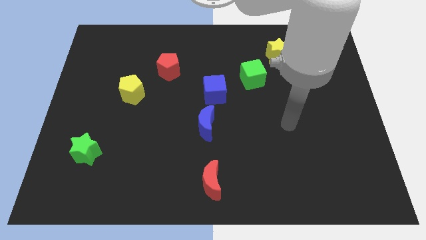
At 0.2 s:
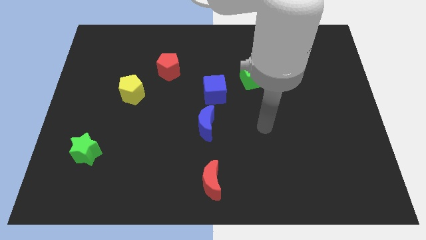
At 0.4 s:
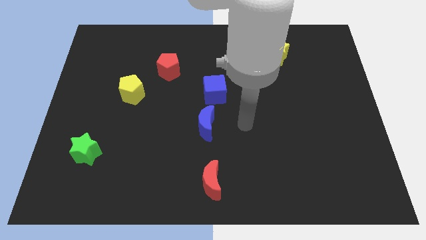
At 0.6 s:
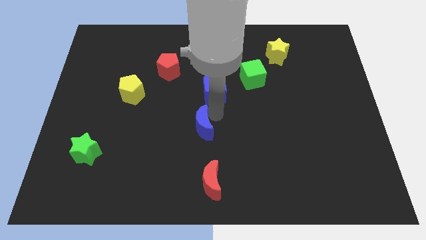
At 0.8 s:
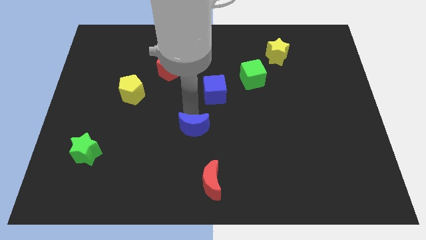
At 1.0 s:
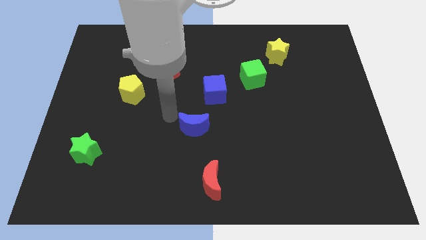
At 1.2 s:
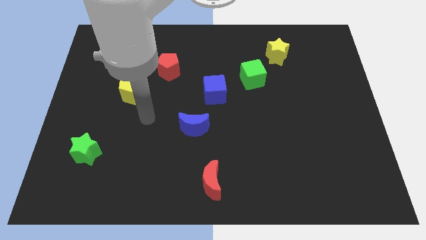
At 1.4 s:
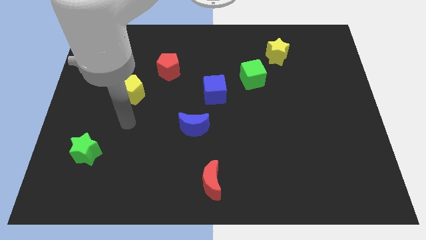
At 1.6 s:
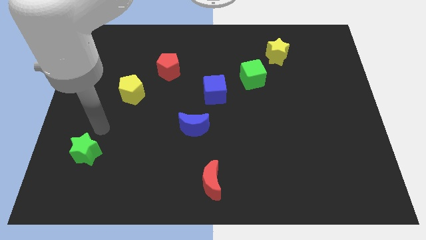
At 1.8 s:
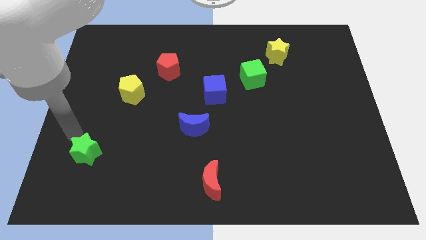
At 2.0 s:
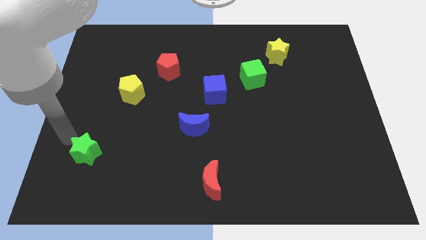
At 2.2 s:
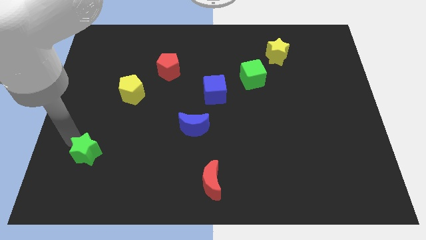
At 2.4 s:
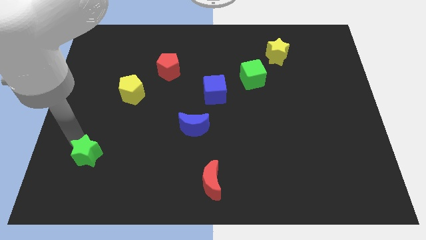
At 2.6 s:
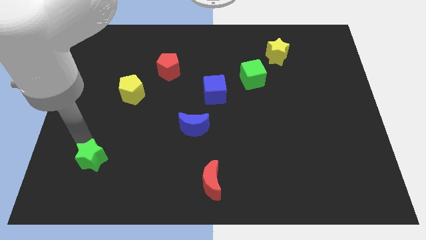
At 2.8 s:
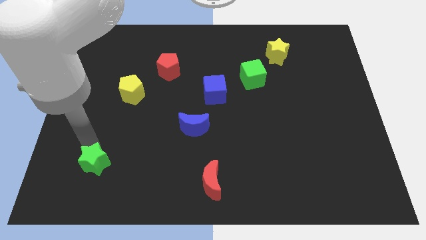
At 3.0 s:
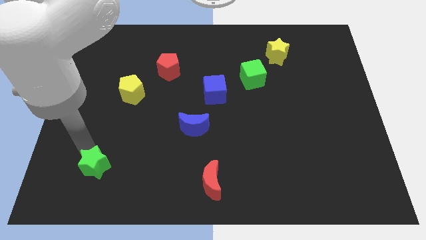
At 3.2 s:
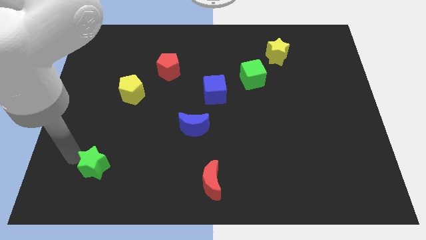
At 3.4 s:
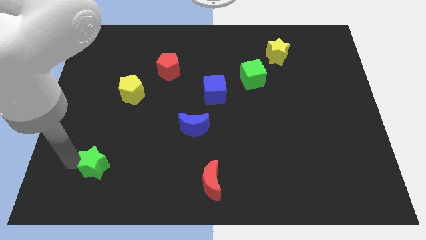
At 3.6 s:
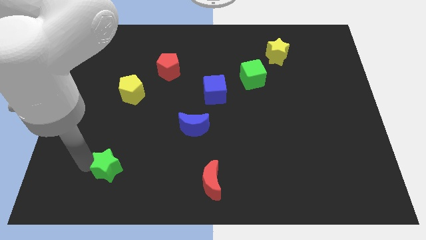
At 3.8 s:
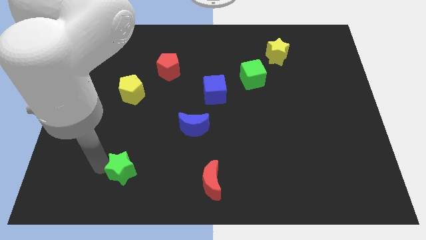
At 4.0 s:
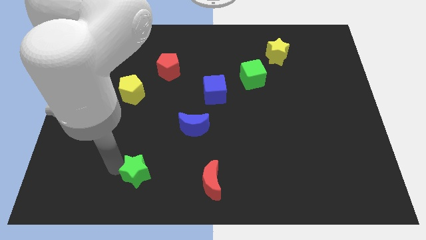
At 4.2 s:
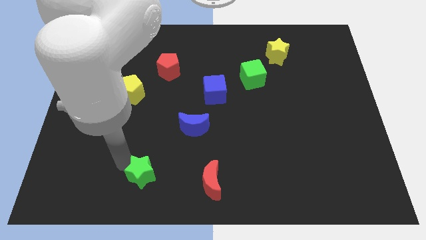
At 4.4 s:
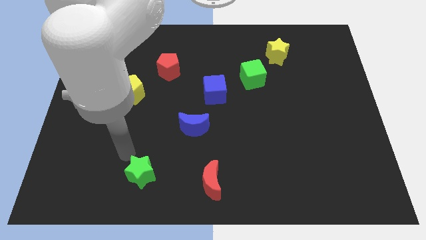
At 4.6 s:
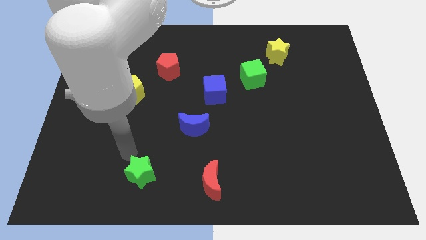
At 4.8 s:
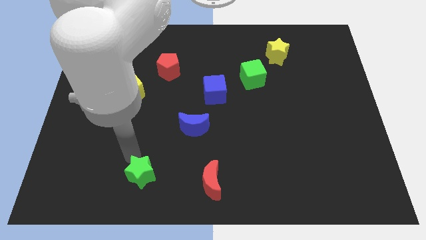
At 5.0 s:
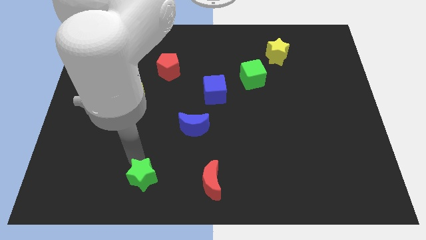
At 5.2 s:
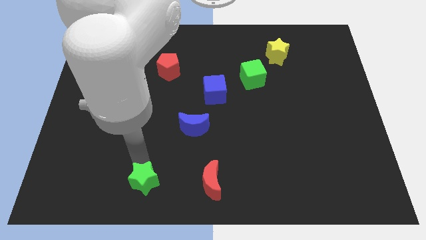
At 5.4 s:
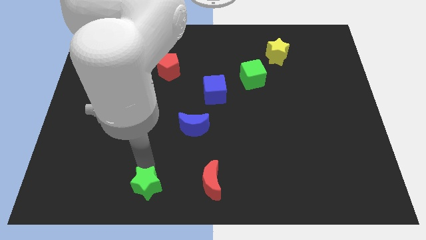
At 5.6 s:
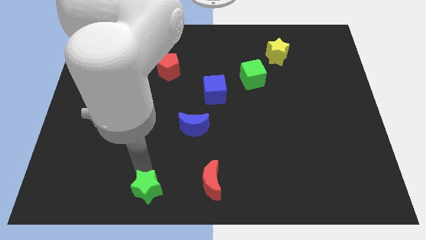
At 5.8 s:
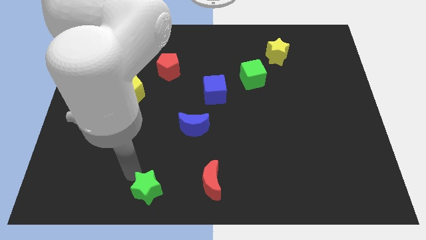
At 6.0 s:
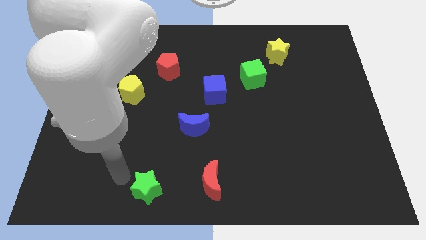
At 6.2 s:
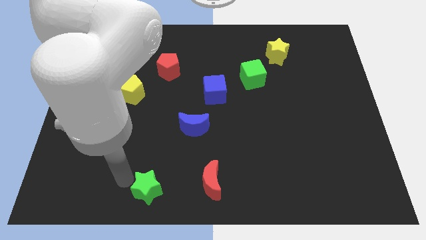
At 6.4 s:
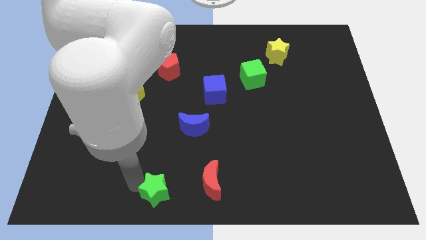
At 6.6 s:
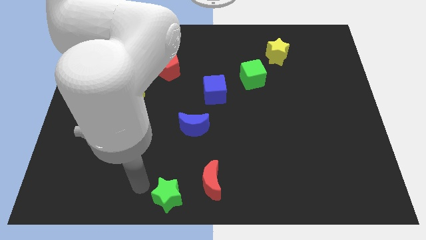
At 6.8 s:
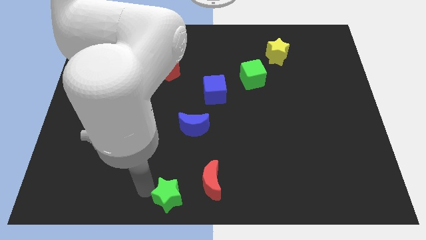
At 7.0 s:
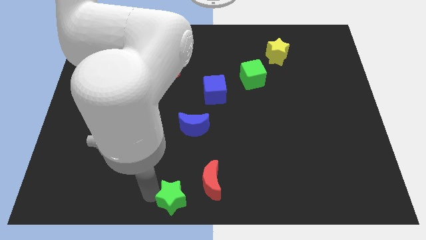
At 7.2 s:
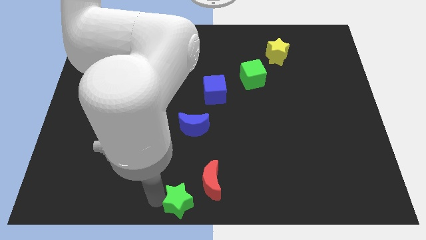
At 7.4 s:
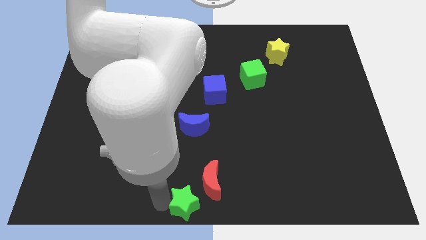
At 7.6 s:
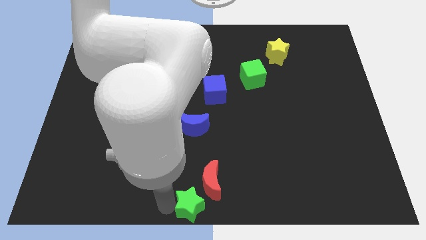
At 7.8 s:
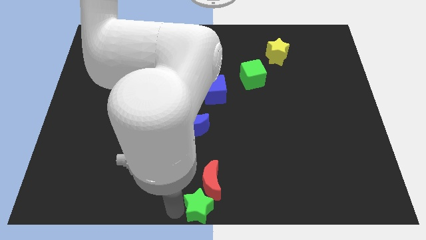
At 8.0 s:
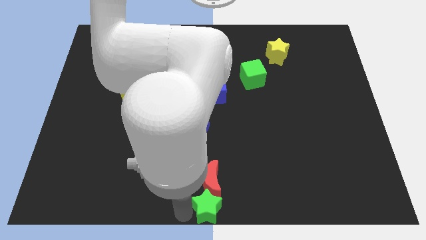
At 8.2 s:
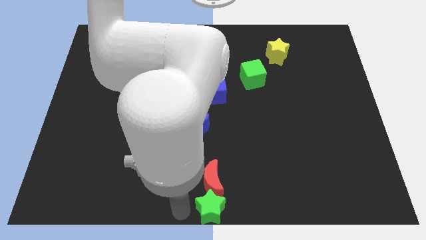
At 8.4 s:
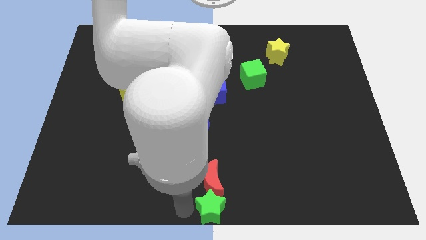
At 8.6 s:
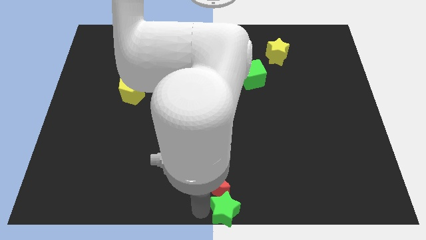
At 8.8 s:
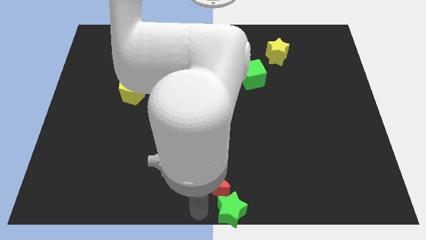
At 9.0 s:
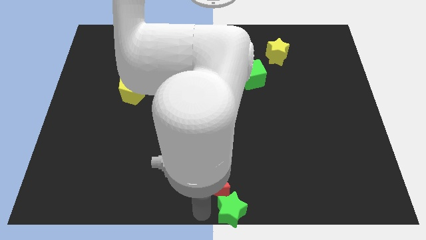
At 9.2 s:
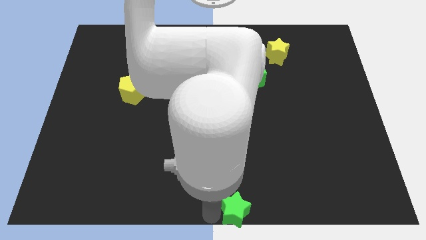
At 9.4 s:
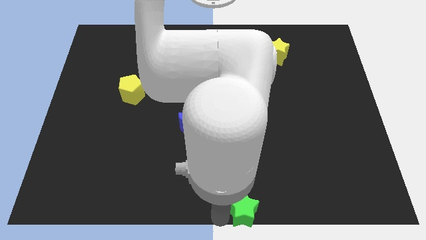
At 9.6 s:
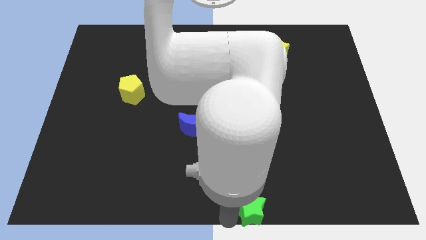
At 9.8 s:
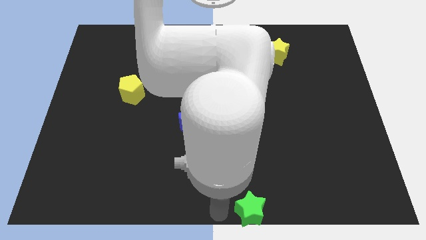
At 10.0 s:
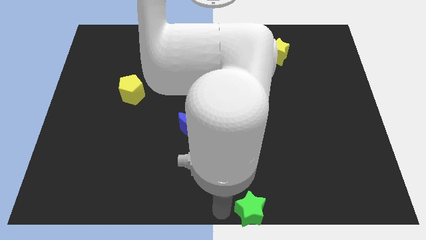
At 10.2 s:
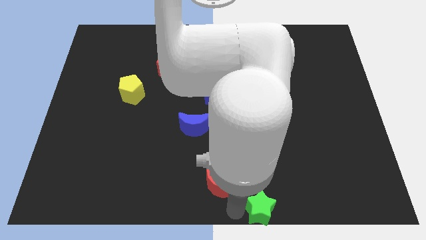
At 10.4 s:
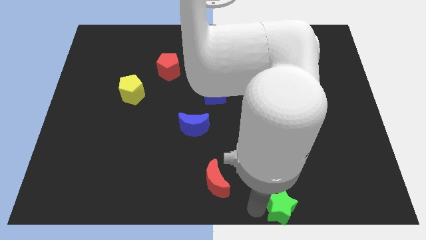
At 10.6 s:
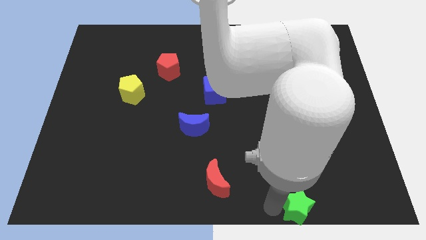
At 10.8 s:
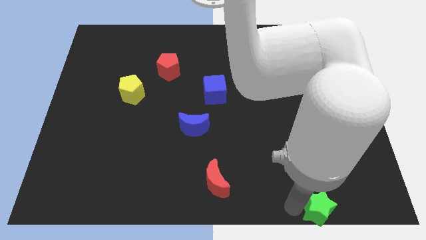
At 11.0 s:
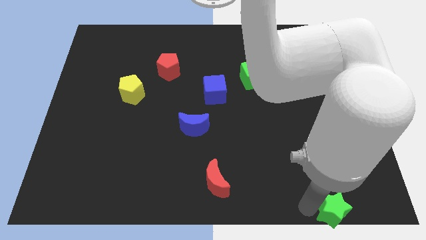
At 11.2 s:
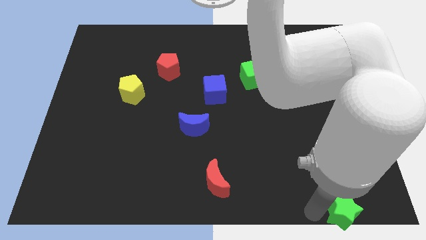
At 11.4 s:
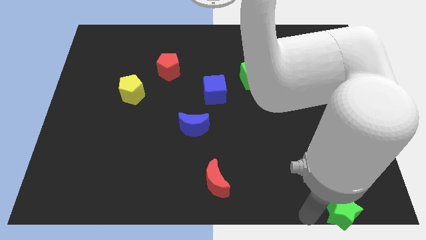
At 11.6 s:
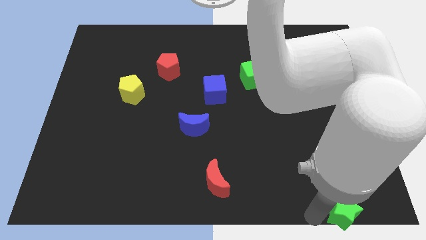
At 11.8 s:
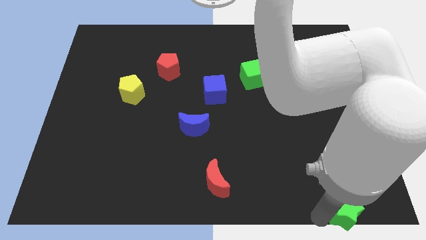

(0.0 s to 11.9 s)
slide the green star to the bottom right corner

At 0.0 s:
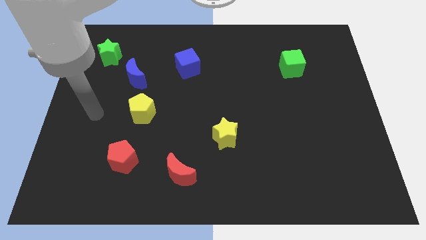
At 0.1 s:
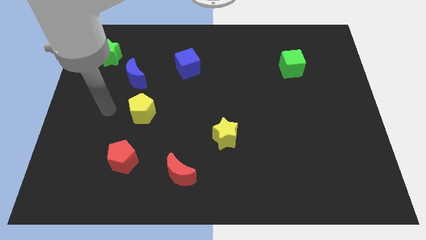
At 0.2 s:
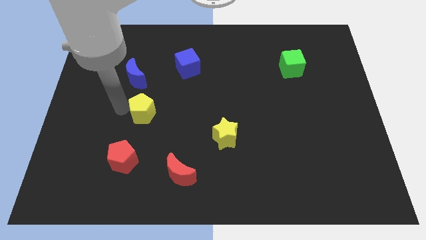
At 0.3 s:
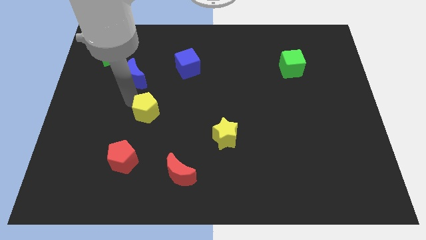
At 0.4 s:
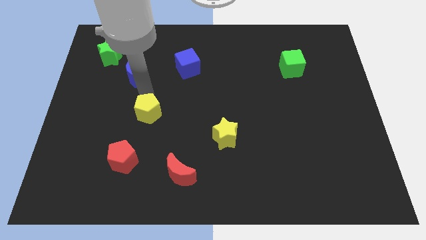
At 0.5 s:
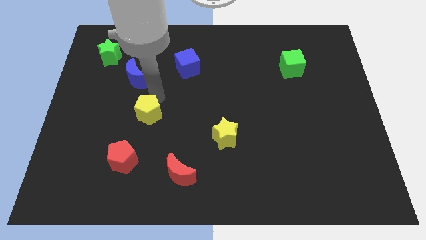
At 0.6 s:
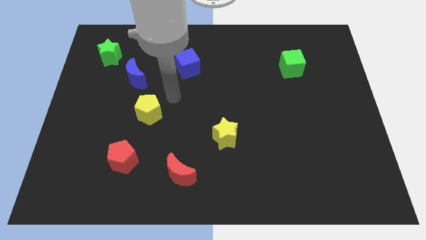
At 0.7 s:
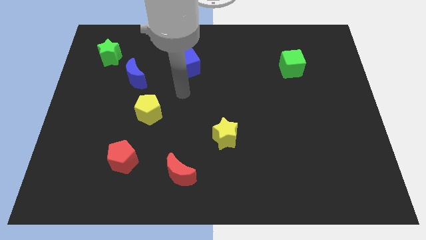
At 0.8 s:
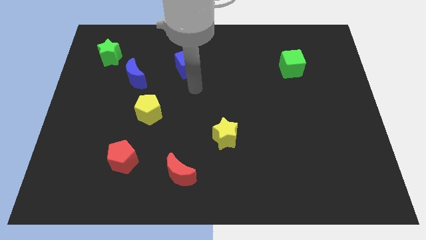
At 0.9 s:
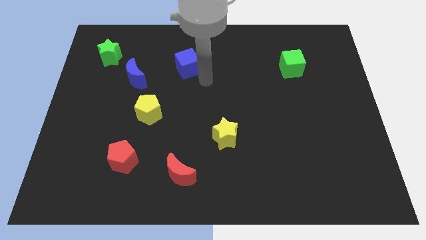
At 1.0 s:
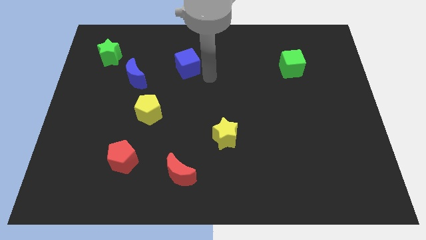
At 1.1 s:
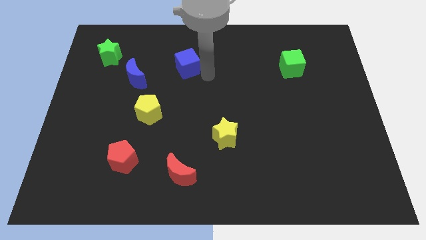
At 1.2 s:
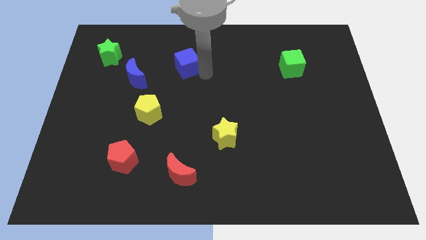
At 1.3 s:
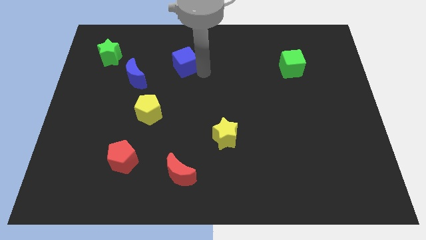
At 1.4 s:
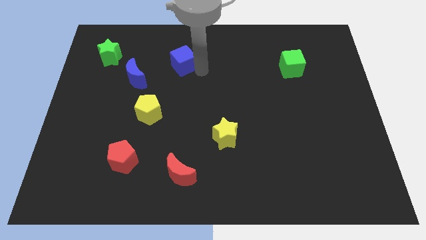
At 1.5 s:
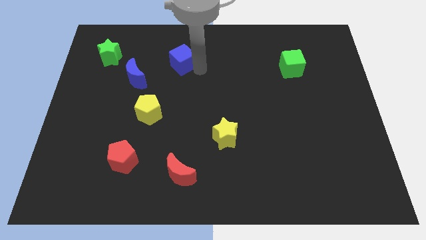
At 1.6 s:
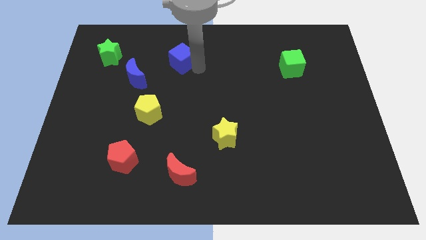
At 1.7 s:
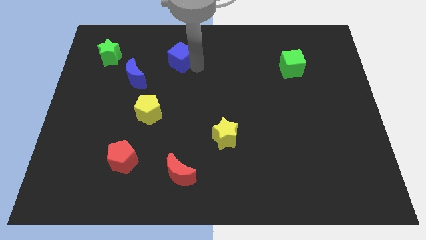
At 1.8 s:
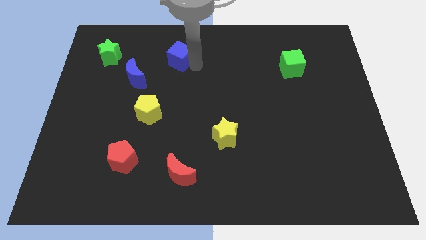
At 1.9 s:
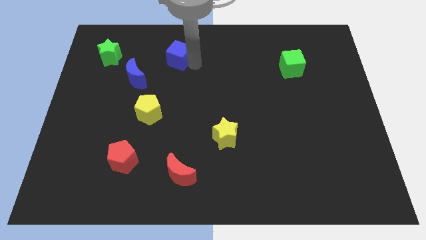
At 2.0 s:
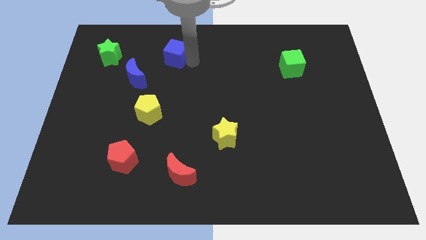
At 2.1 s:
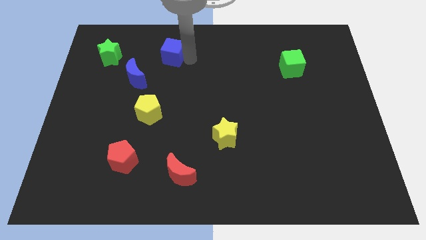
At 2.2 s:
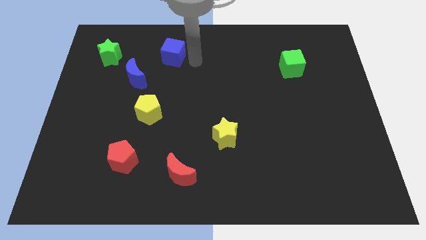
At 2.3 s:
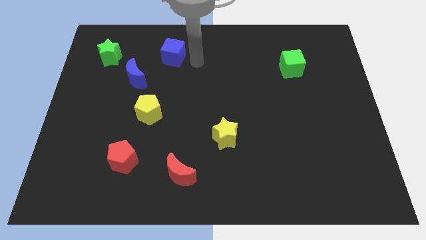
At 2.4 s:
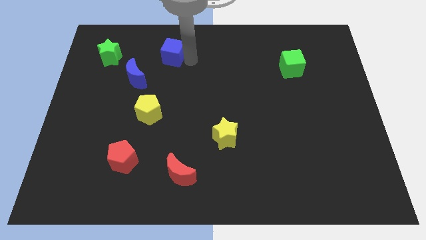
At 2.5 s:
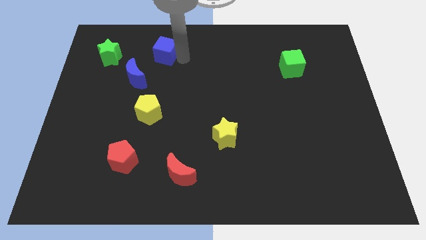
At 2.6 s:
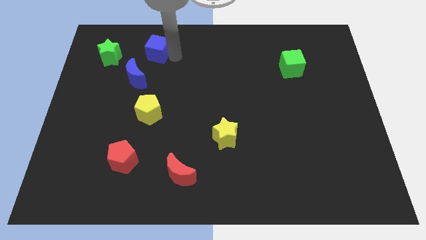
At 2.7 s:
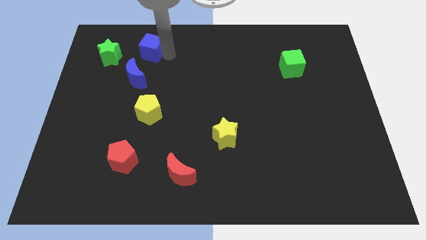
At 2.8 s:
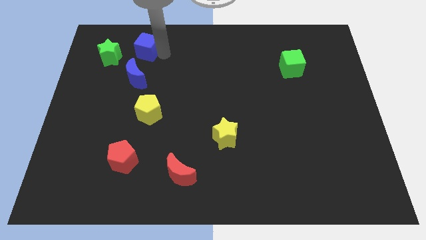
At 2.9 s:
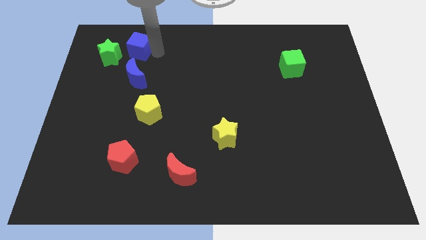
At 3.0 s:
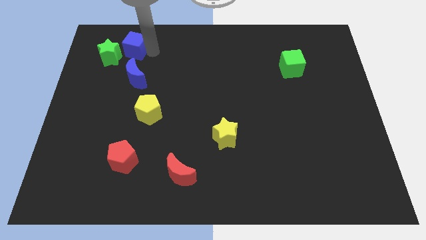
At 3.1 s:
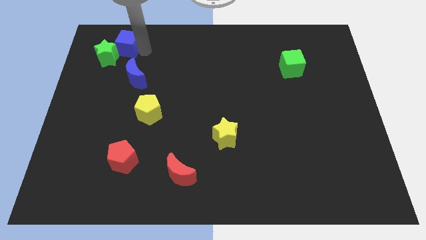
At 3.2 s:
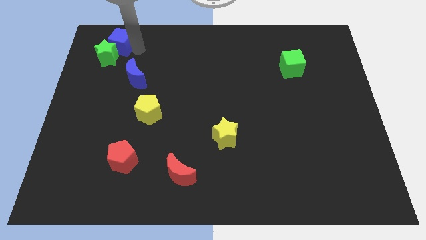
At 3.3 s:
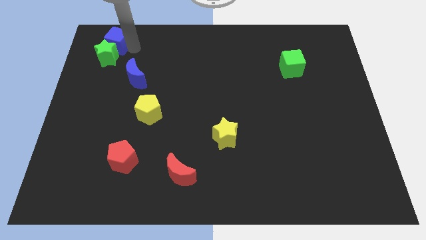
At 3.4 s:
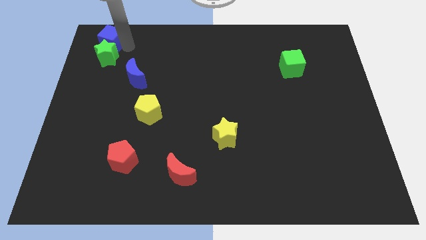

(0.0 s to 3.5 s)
slide the blue cube to the upper left corner
